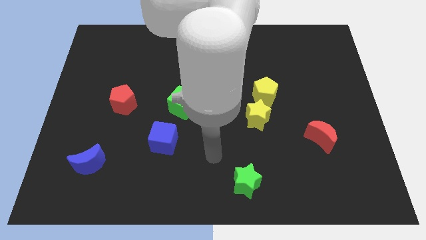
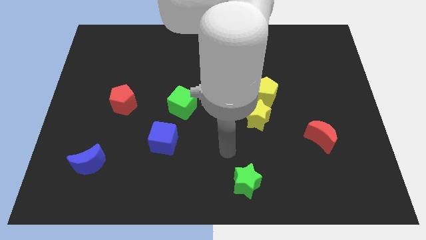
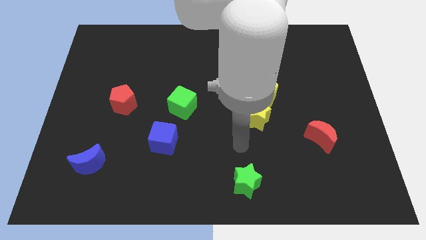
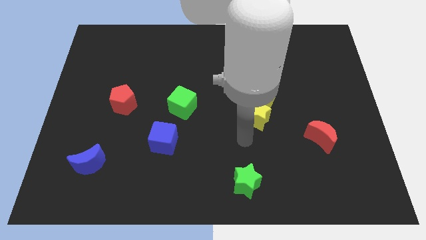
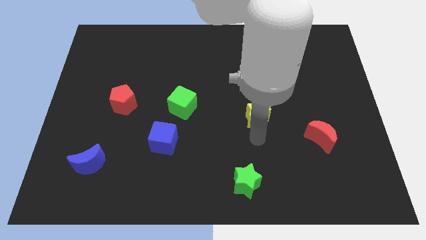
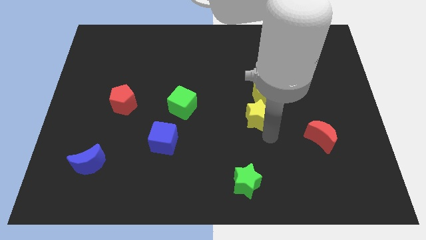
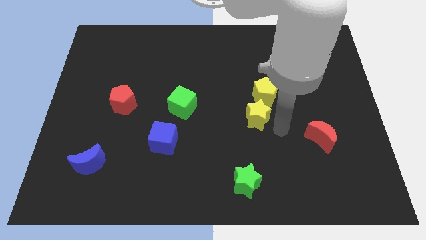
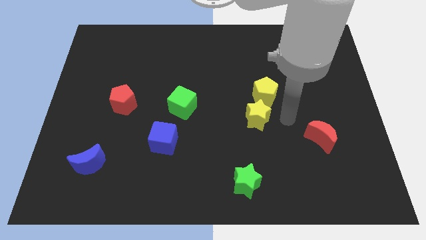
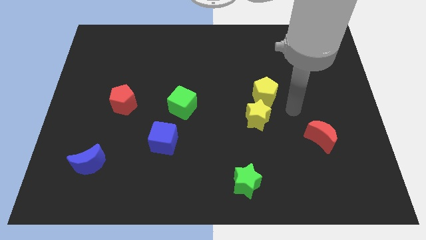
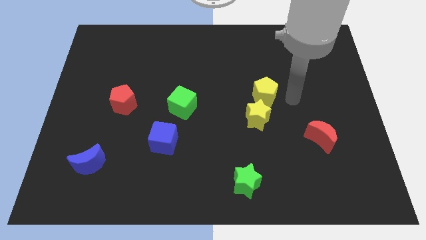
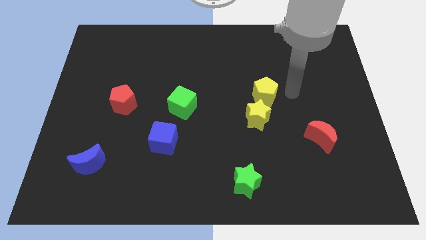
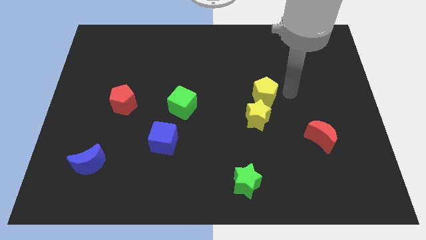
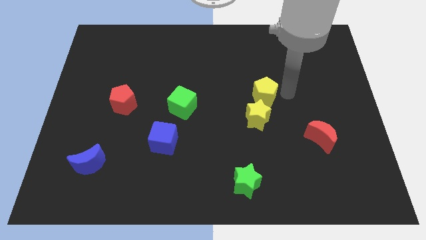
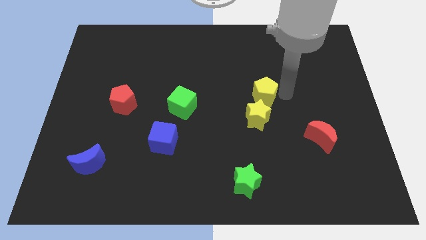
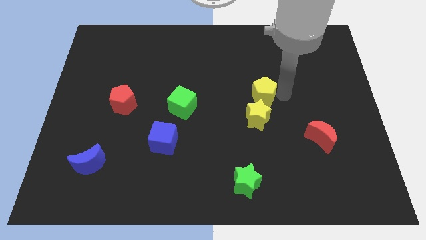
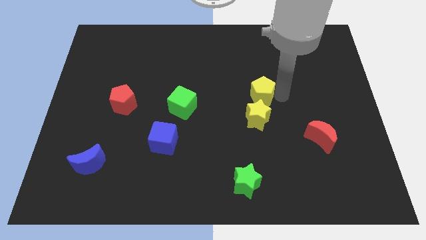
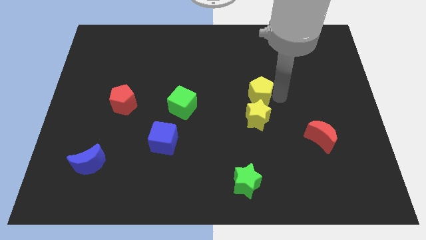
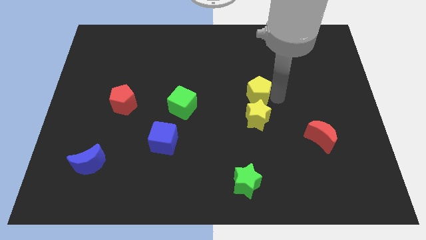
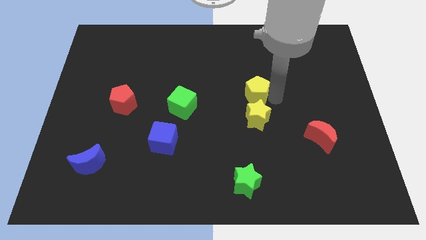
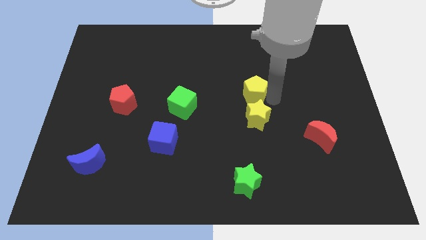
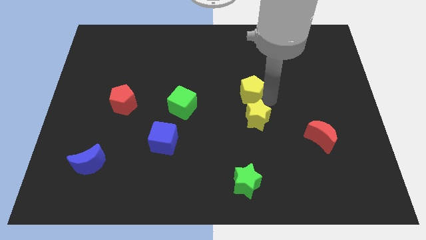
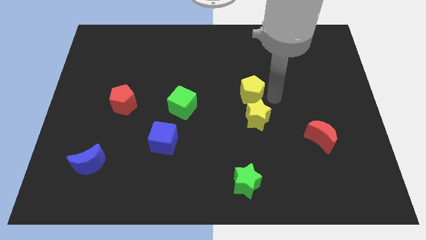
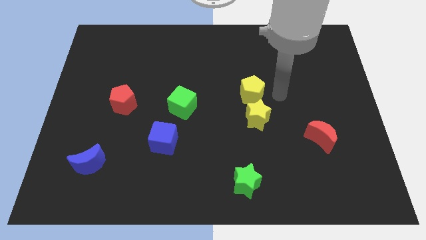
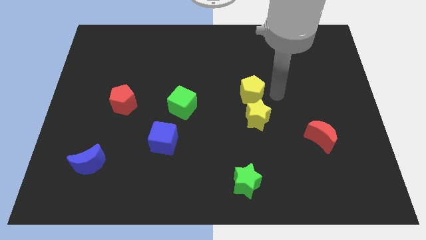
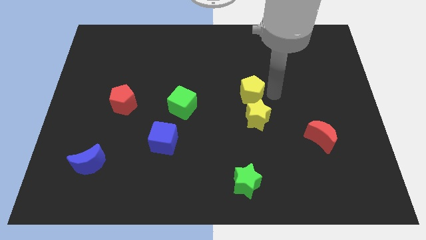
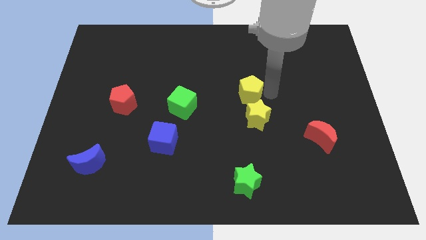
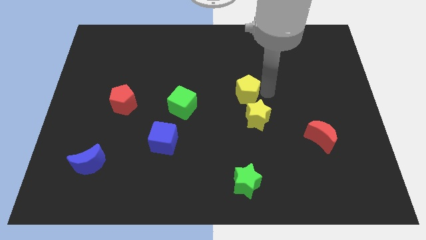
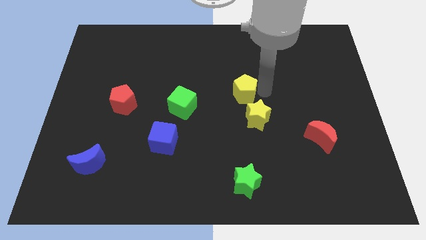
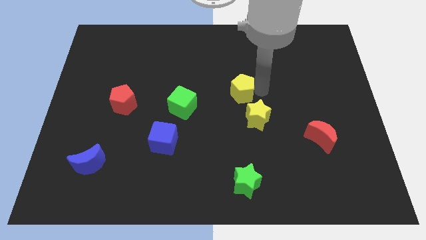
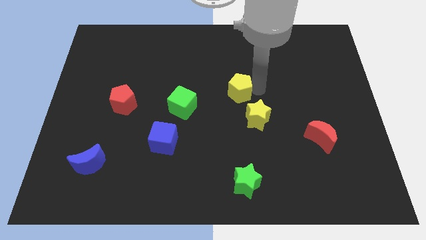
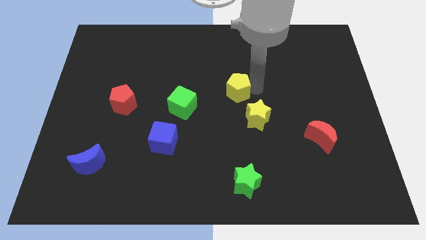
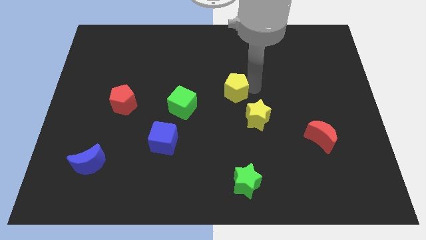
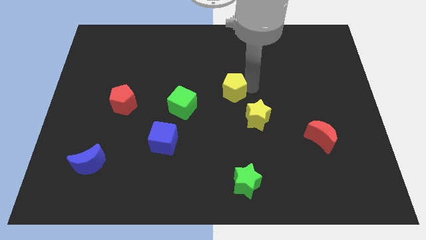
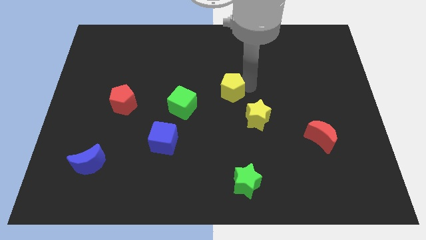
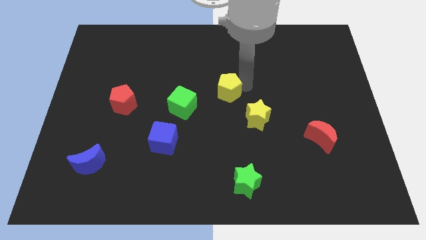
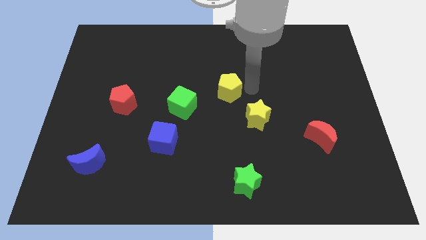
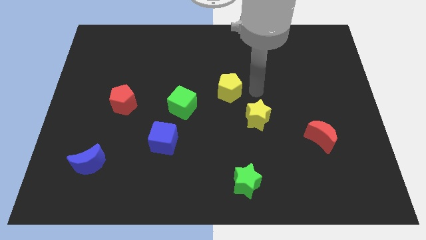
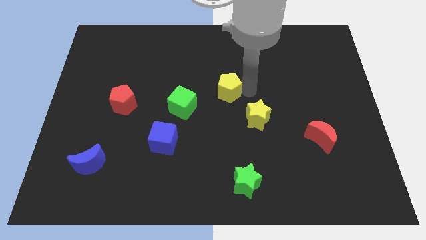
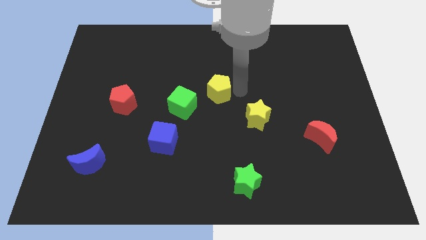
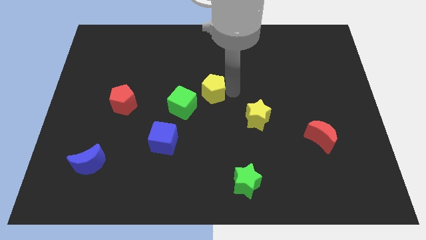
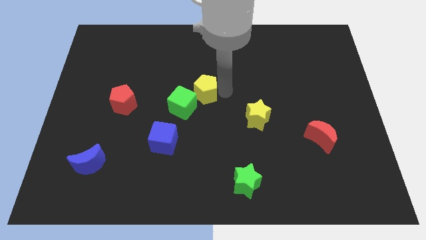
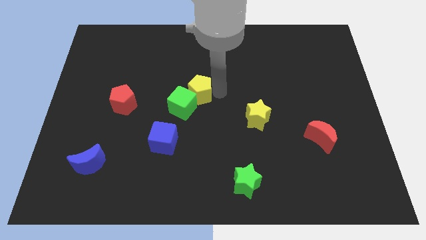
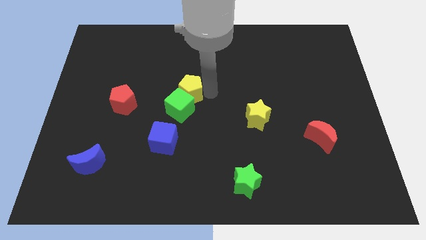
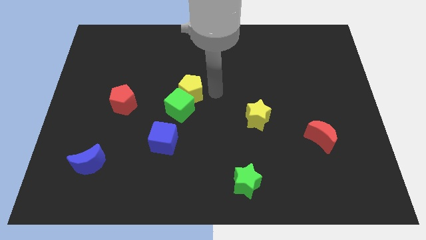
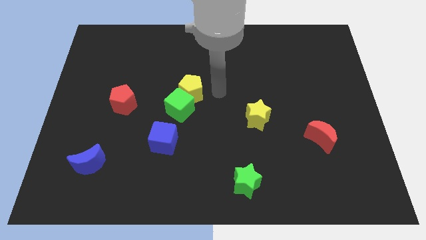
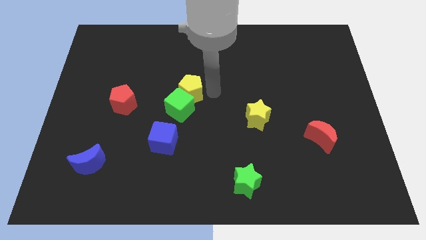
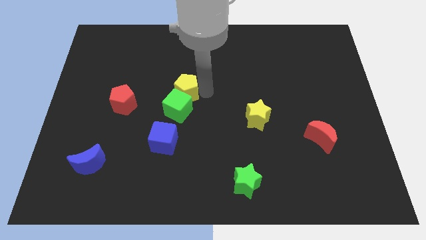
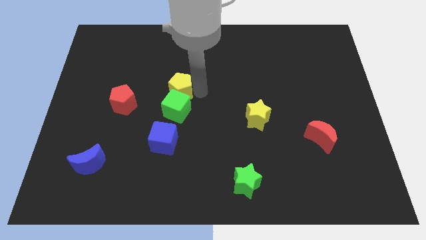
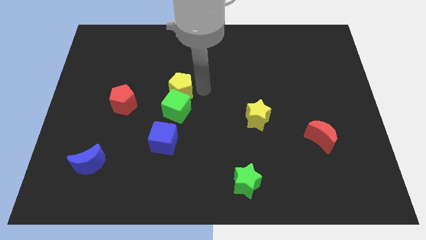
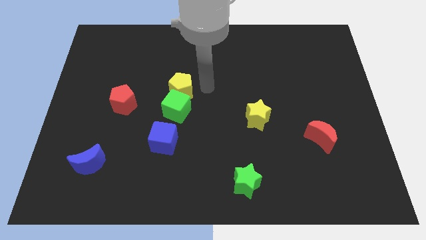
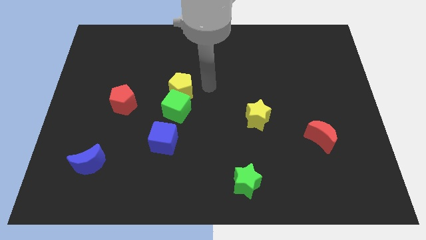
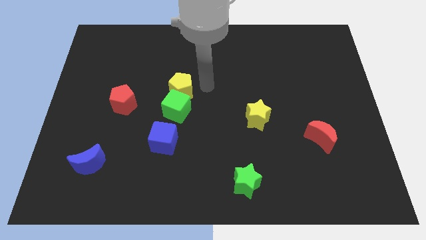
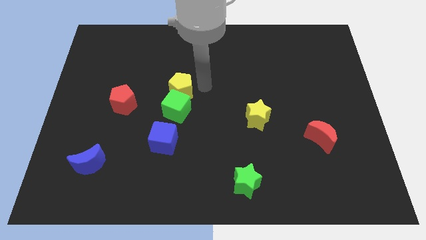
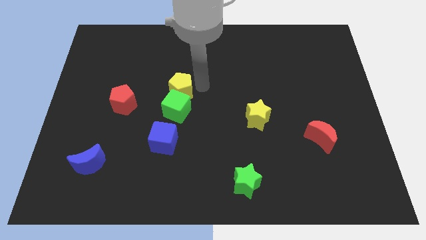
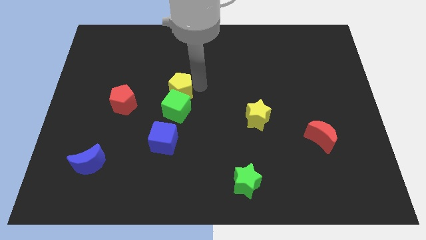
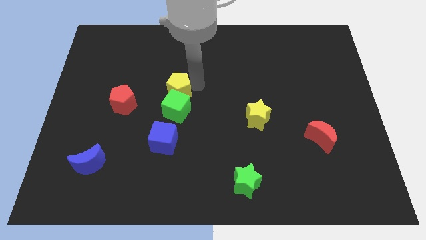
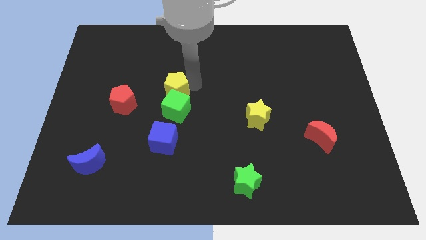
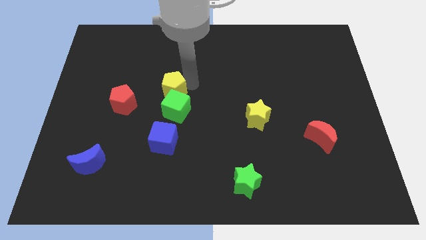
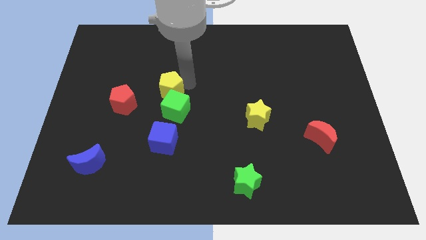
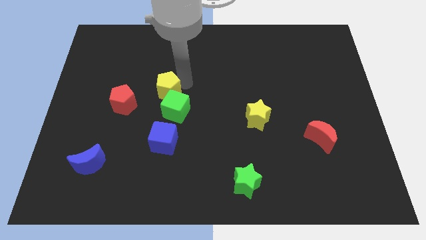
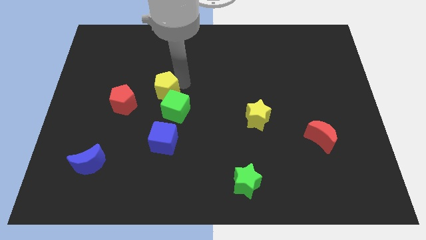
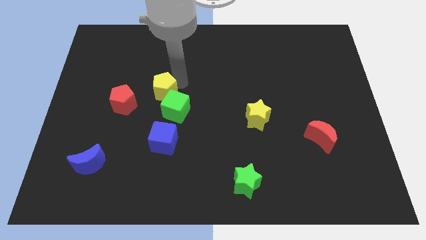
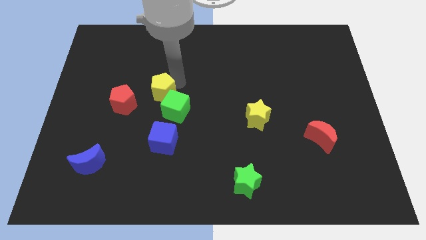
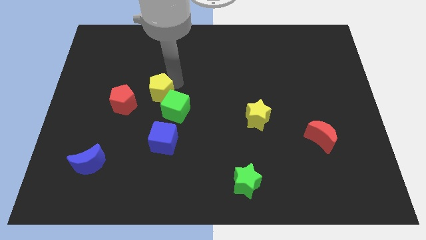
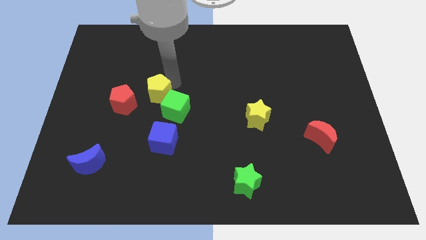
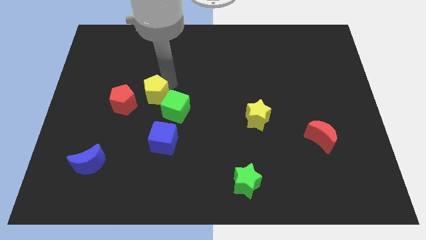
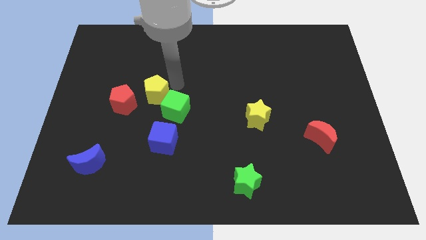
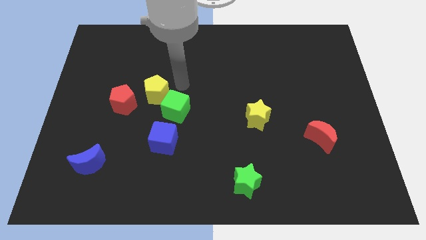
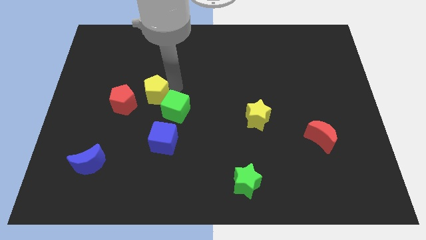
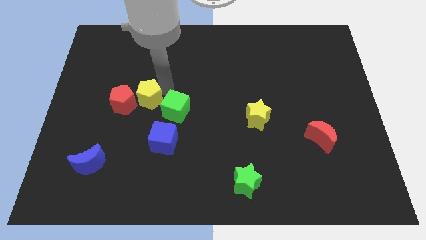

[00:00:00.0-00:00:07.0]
push the yellow pentagon to the red pentagon

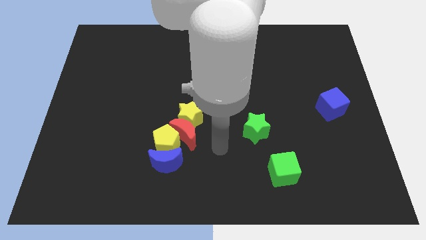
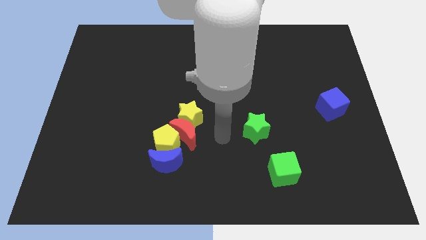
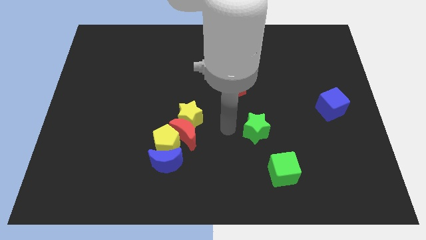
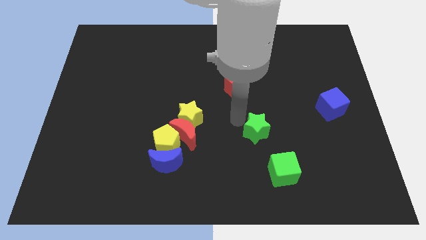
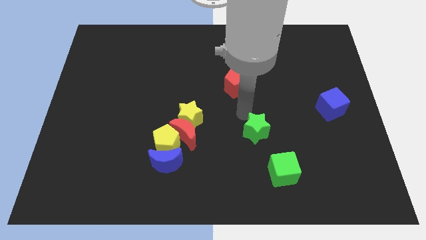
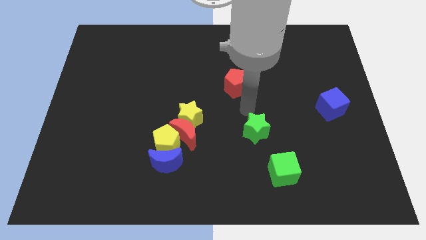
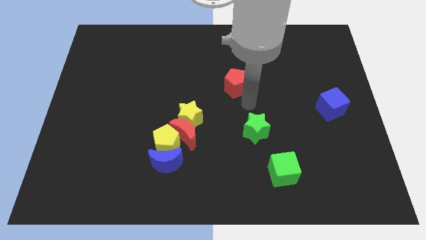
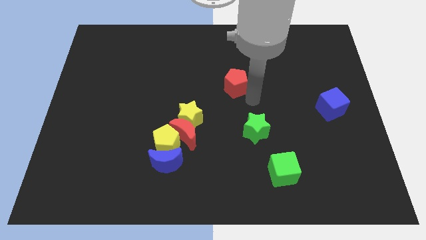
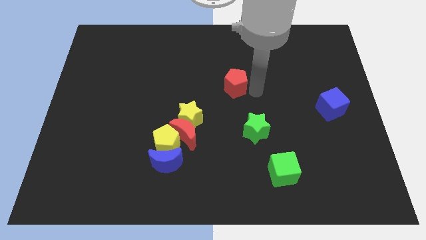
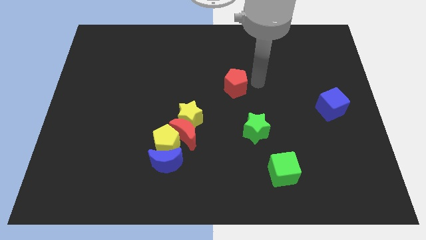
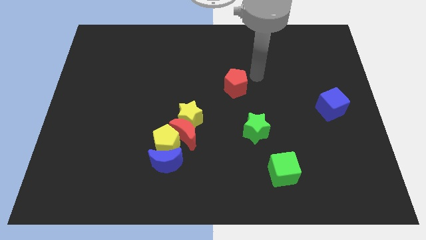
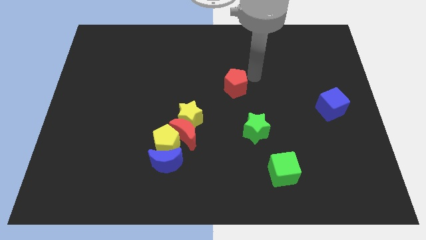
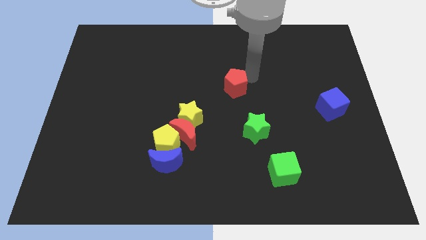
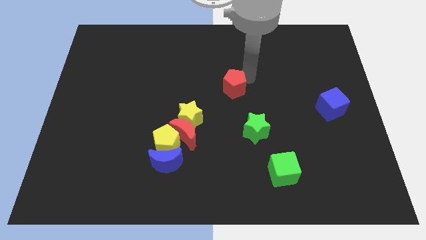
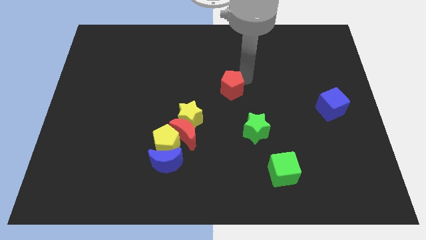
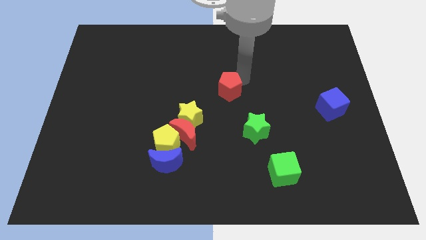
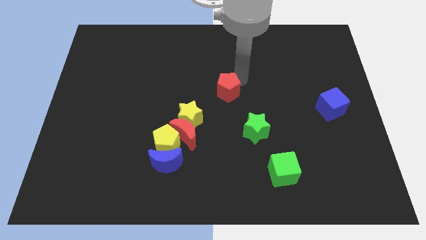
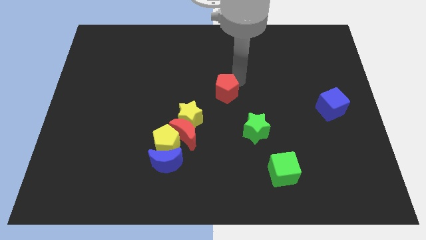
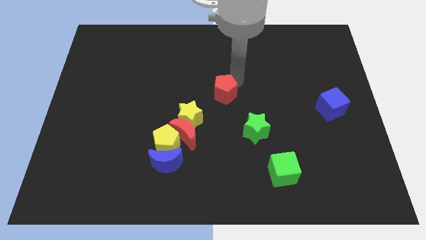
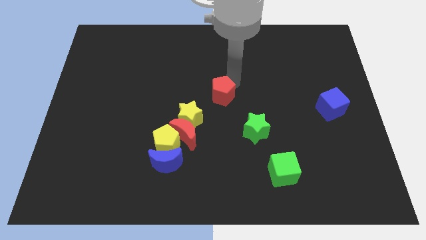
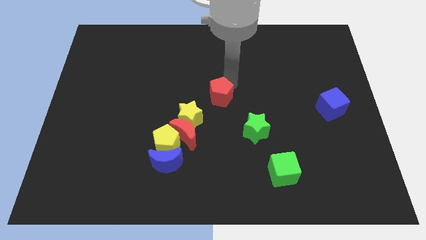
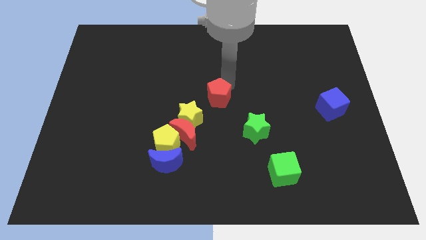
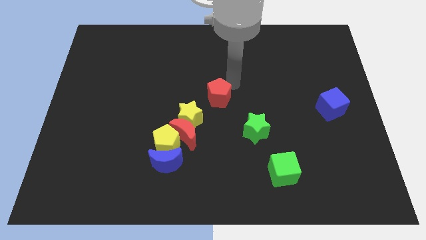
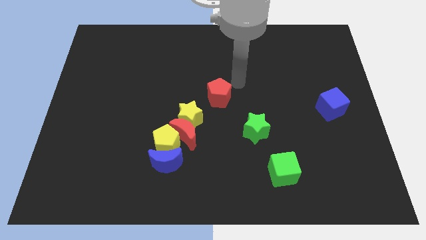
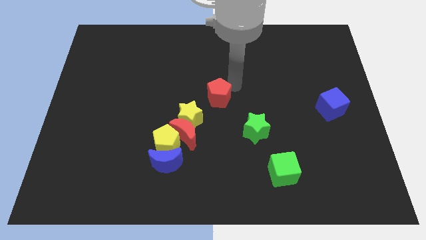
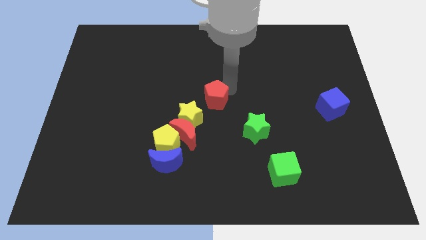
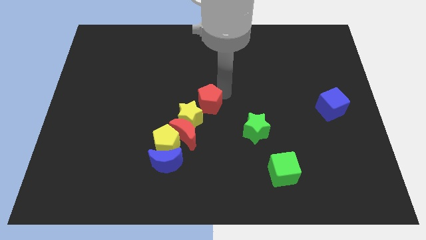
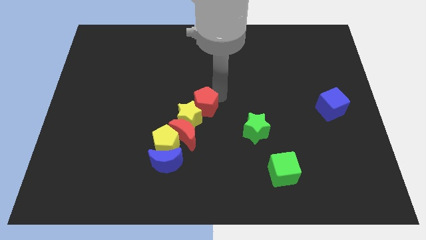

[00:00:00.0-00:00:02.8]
put the red pentagon to the yellow star
